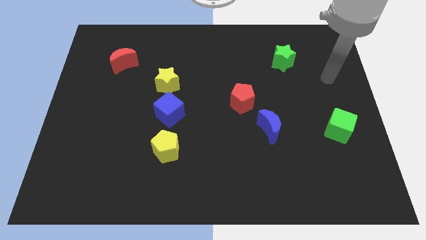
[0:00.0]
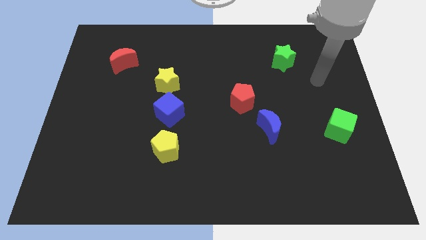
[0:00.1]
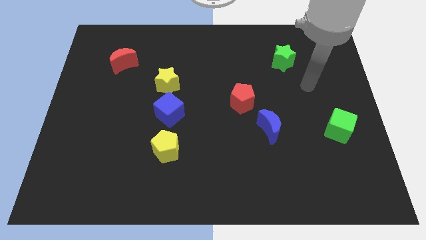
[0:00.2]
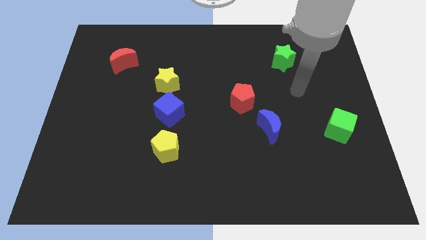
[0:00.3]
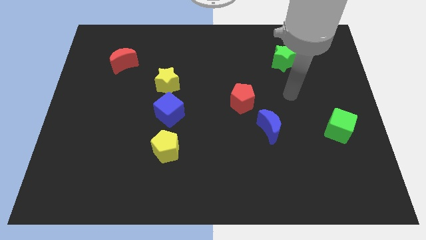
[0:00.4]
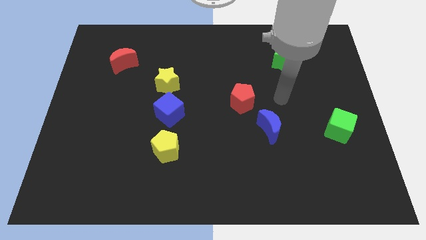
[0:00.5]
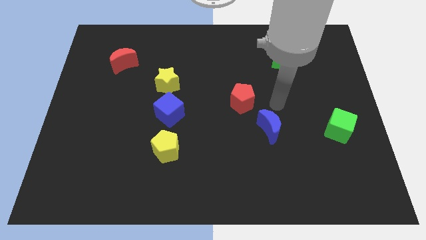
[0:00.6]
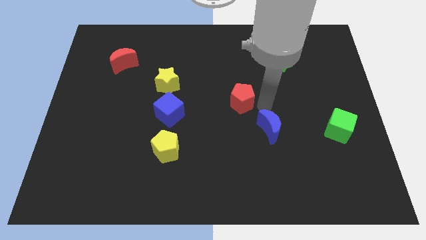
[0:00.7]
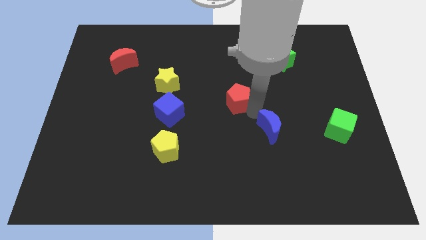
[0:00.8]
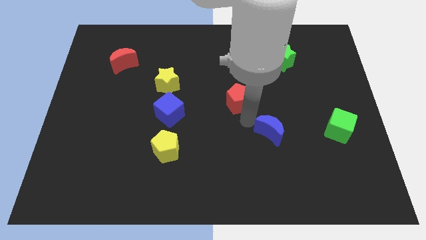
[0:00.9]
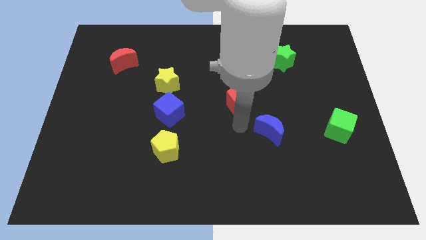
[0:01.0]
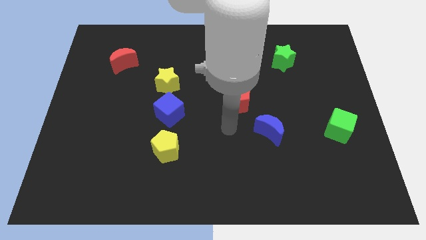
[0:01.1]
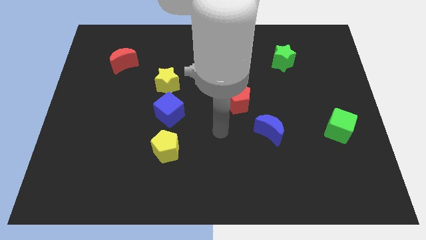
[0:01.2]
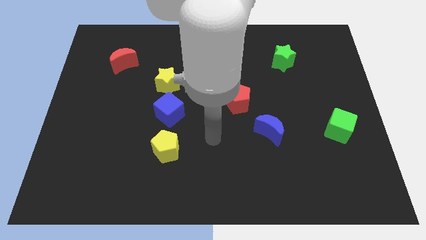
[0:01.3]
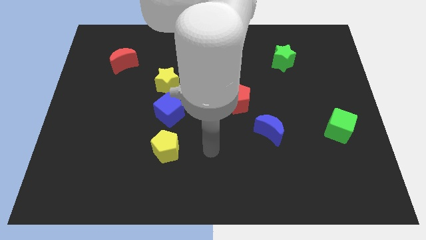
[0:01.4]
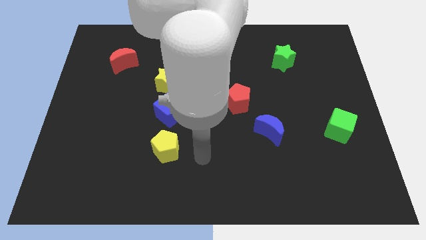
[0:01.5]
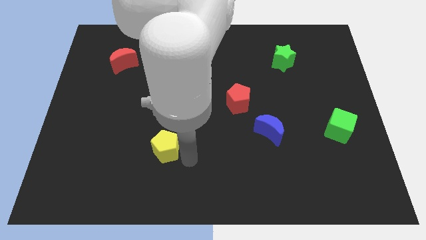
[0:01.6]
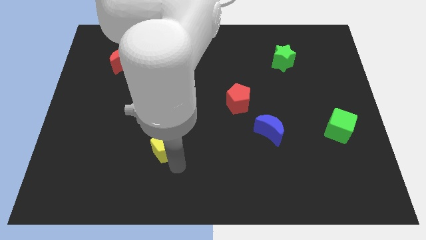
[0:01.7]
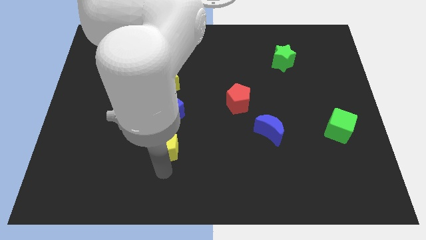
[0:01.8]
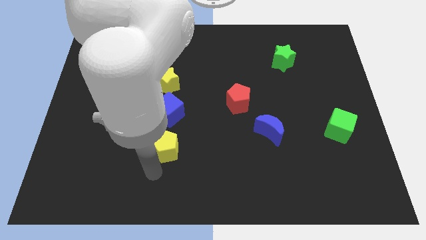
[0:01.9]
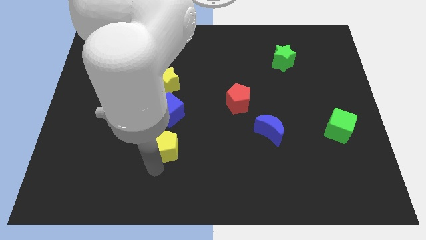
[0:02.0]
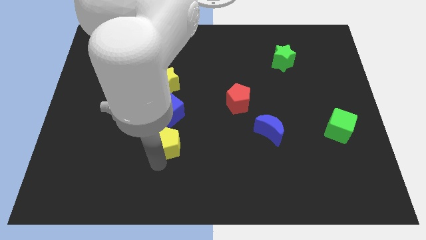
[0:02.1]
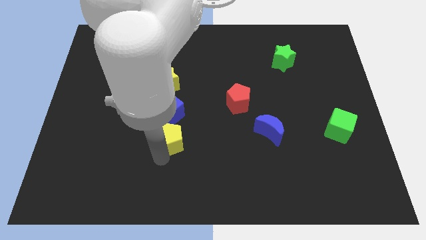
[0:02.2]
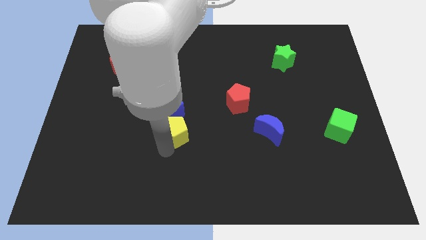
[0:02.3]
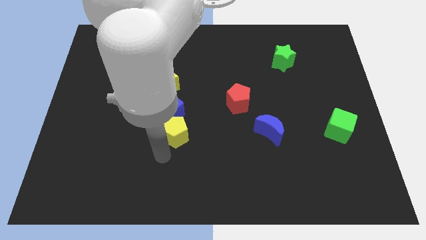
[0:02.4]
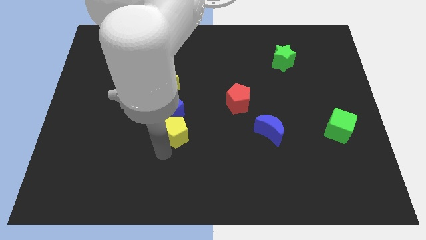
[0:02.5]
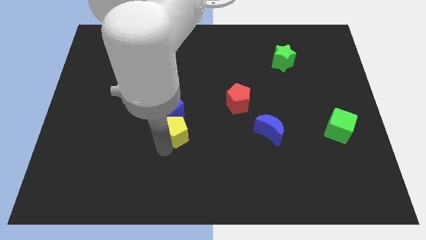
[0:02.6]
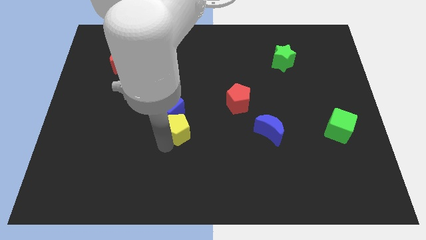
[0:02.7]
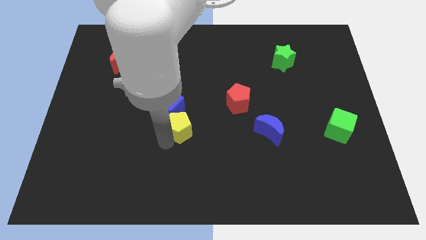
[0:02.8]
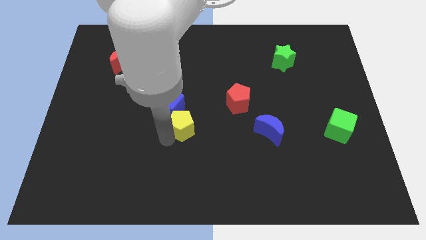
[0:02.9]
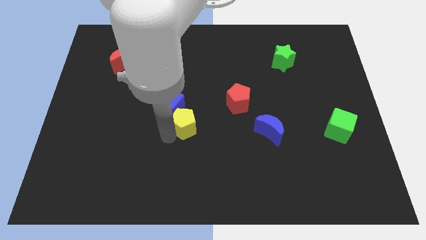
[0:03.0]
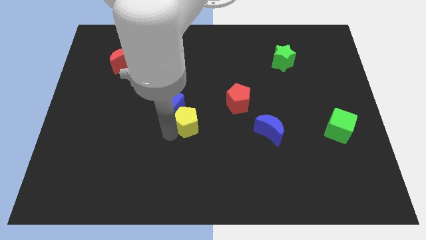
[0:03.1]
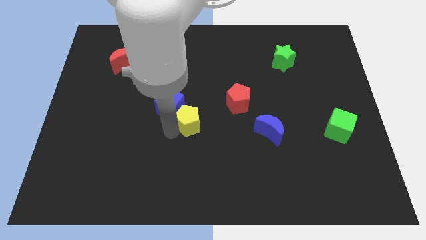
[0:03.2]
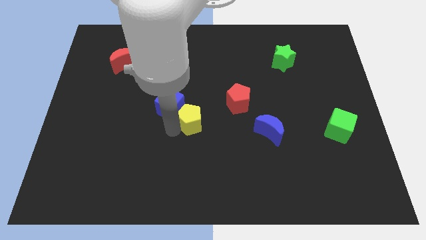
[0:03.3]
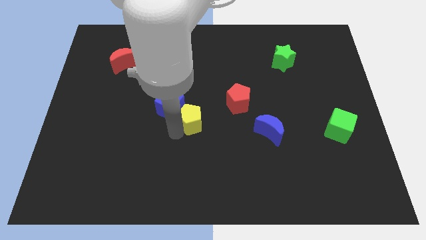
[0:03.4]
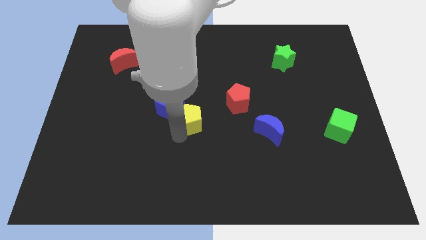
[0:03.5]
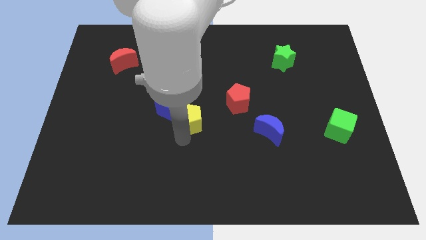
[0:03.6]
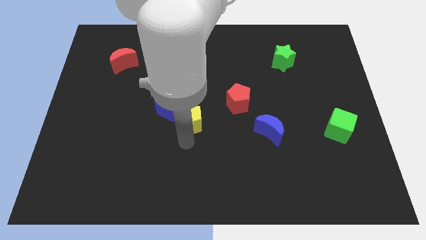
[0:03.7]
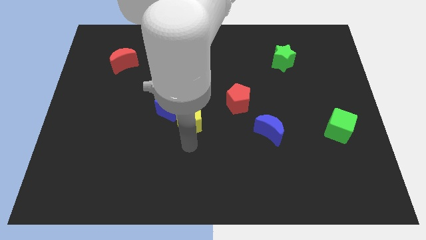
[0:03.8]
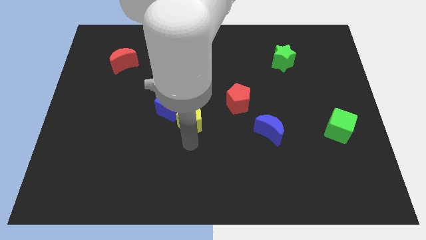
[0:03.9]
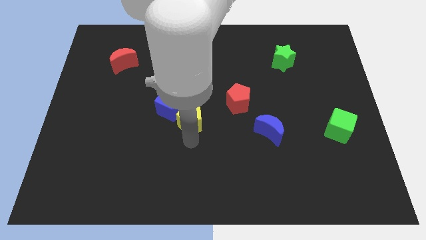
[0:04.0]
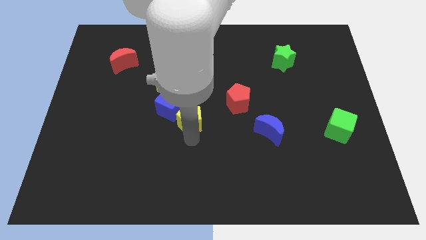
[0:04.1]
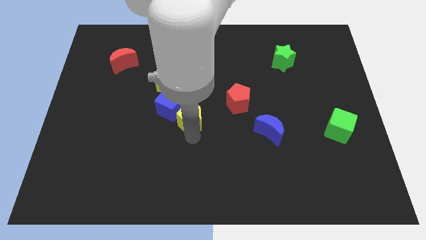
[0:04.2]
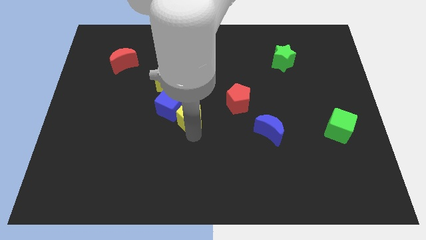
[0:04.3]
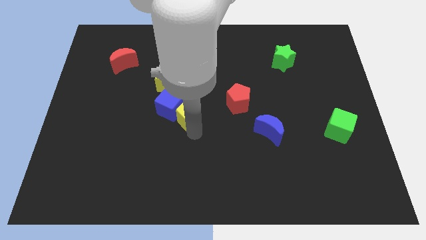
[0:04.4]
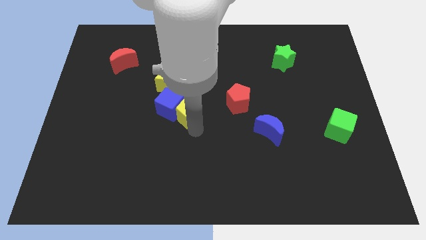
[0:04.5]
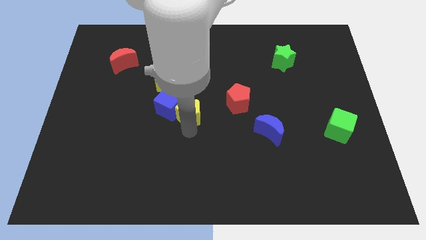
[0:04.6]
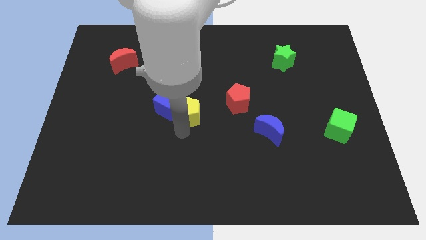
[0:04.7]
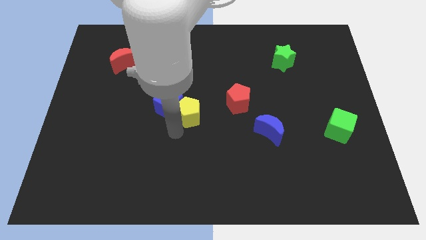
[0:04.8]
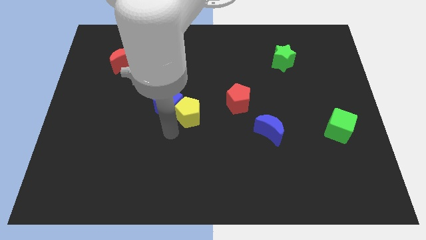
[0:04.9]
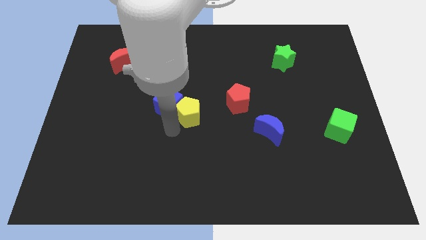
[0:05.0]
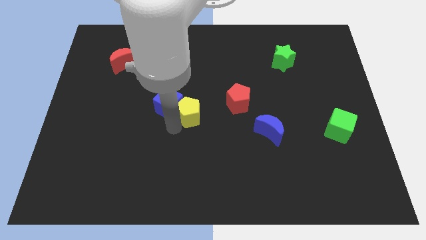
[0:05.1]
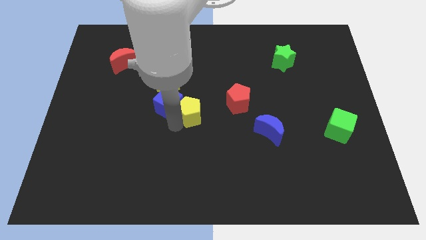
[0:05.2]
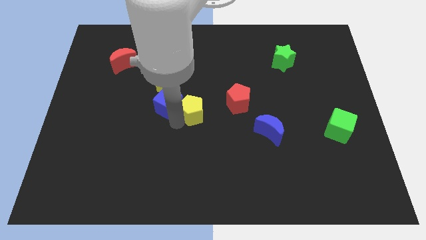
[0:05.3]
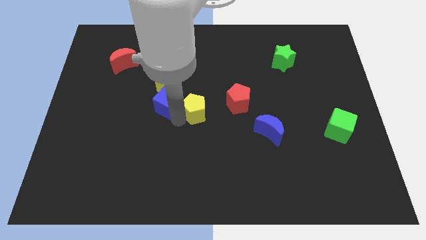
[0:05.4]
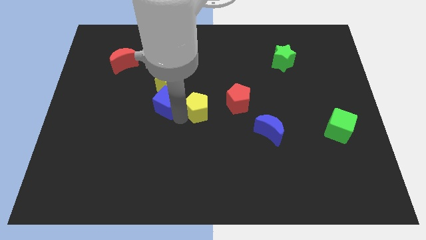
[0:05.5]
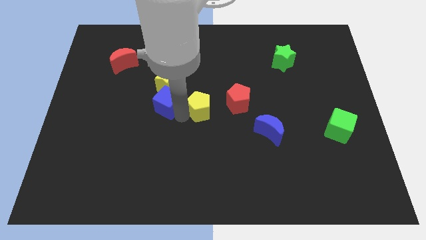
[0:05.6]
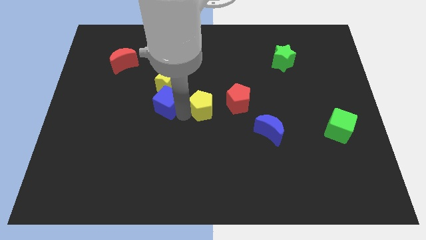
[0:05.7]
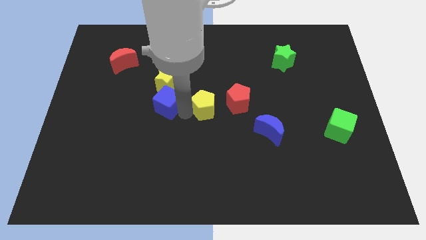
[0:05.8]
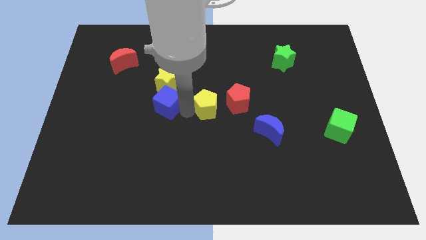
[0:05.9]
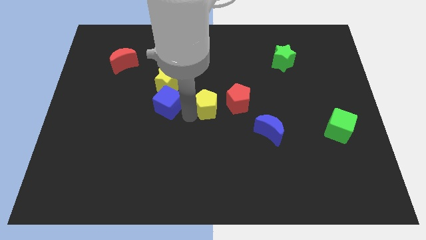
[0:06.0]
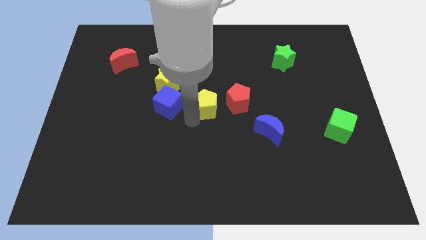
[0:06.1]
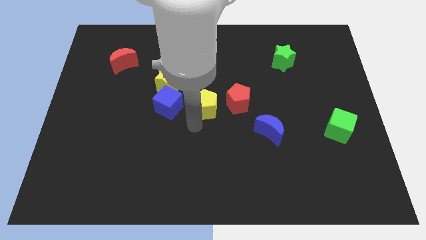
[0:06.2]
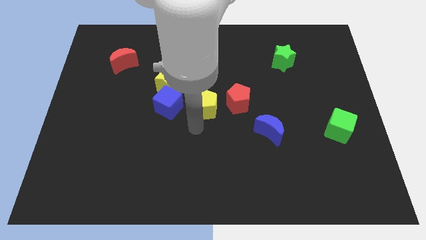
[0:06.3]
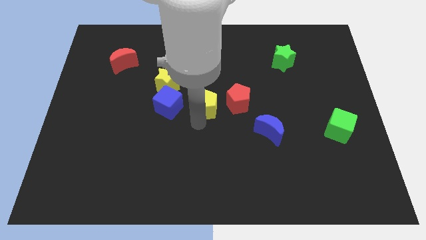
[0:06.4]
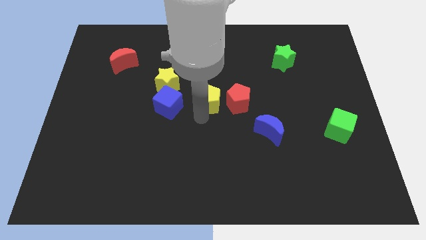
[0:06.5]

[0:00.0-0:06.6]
slide the yellow pentagon to the top left of the red pentagon

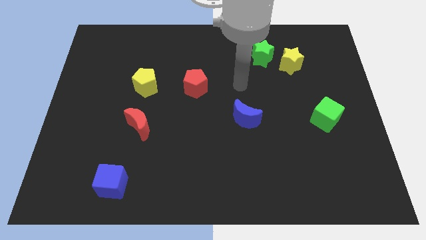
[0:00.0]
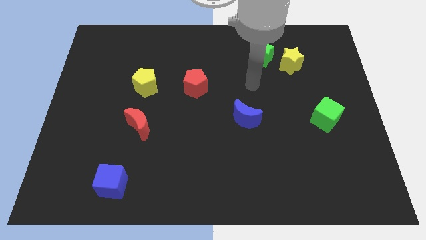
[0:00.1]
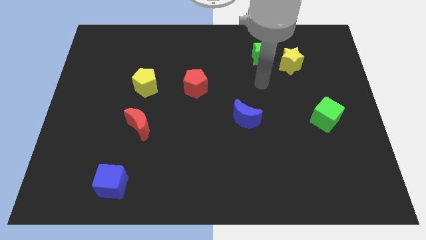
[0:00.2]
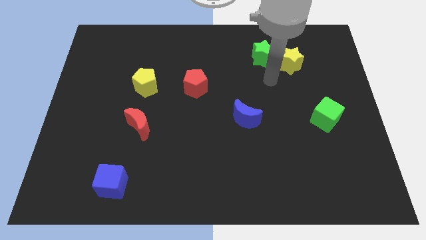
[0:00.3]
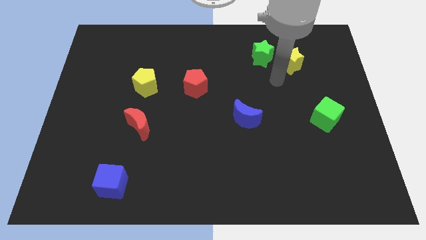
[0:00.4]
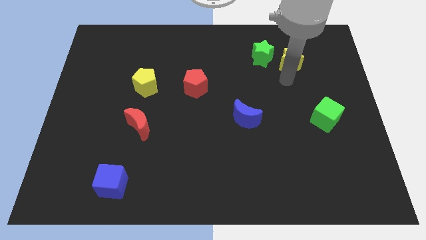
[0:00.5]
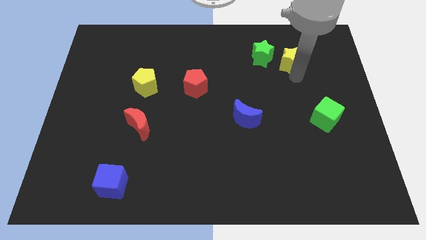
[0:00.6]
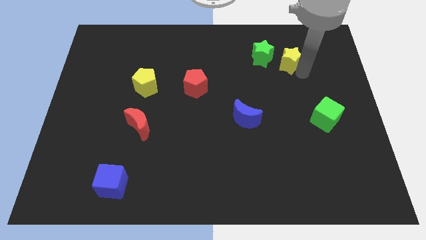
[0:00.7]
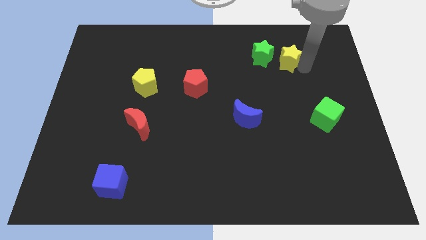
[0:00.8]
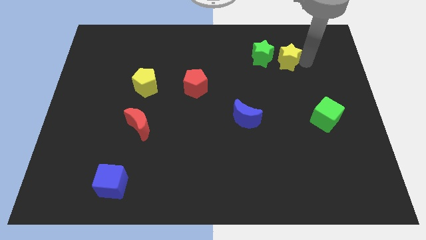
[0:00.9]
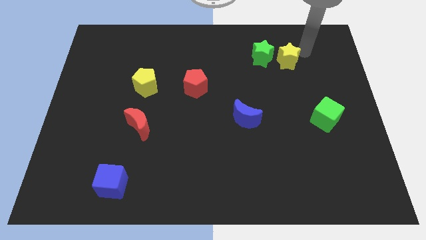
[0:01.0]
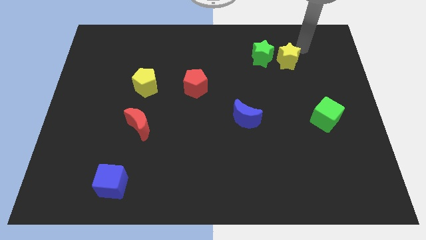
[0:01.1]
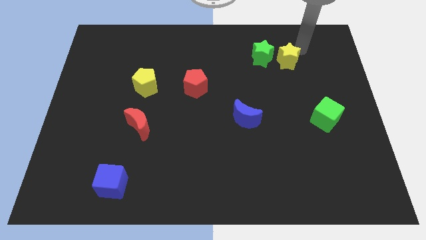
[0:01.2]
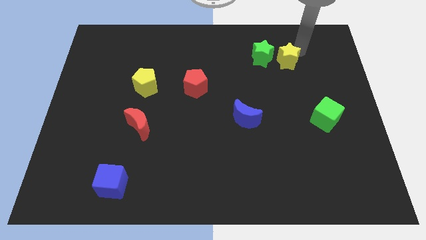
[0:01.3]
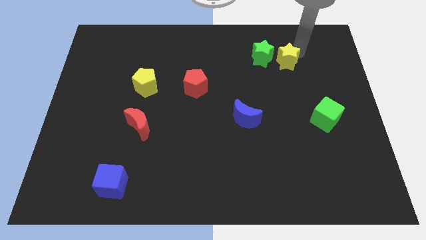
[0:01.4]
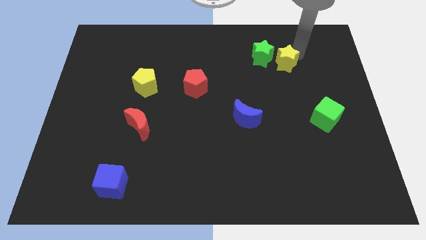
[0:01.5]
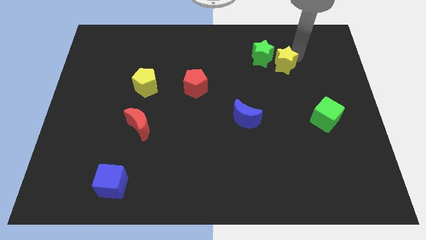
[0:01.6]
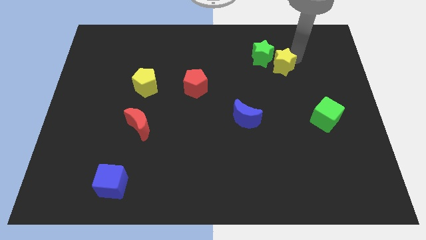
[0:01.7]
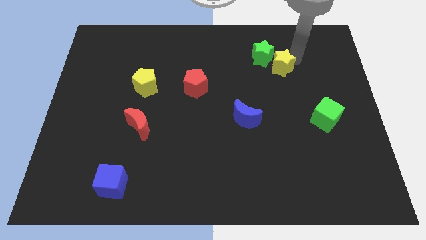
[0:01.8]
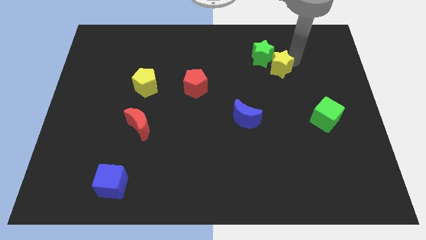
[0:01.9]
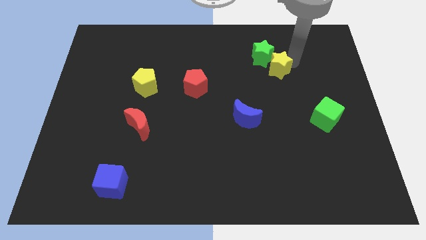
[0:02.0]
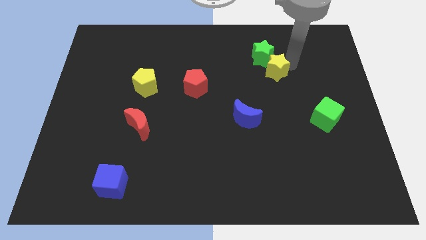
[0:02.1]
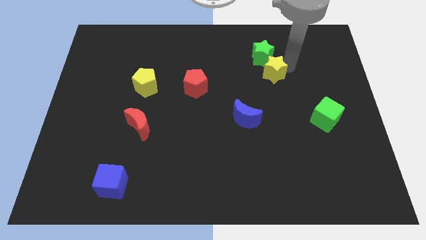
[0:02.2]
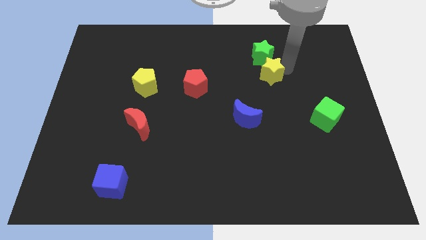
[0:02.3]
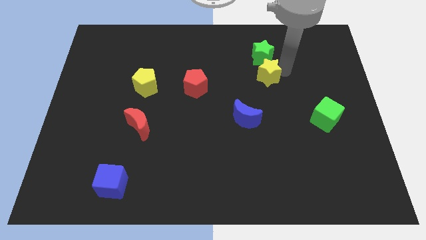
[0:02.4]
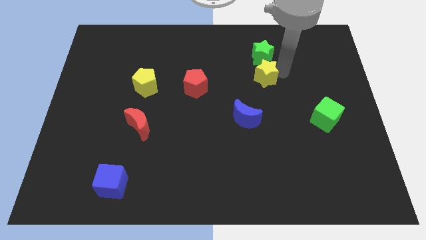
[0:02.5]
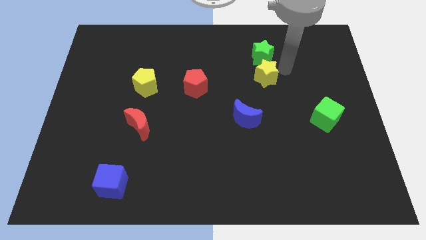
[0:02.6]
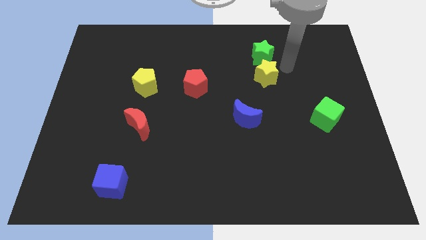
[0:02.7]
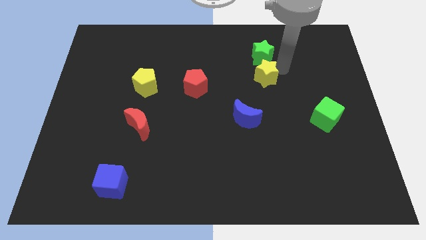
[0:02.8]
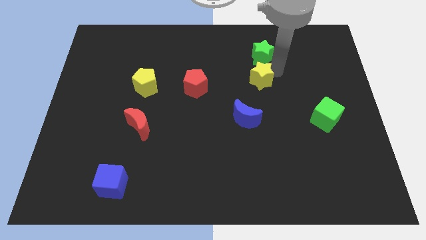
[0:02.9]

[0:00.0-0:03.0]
push the yellow star to the top of the blue moon
